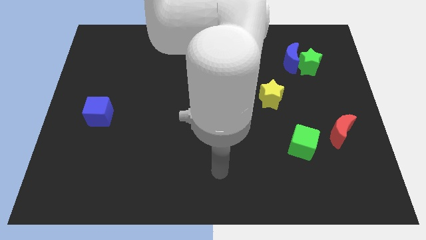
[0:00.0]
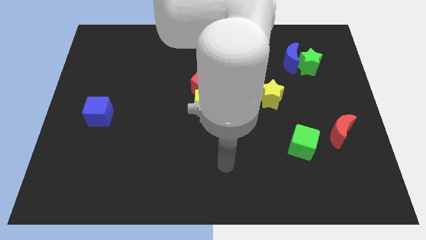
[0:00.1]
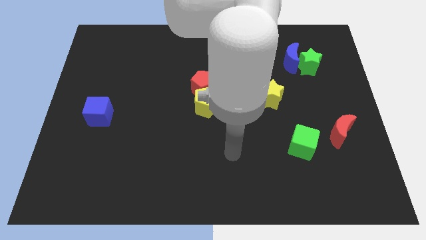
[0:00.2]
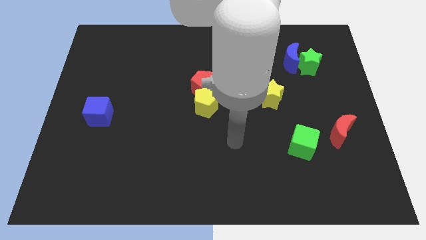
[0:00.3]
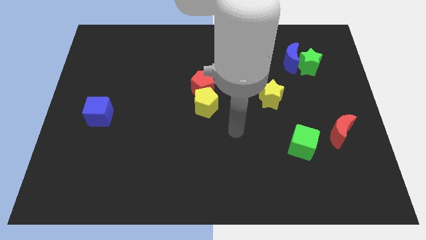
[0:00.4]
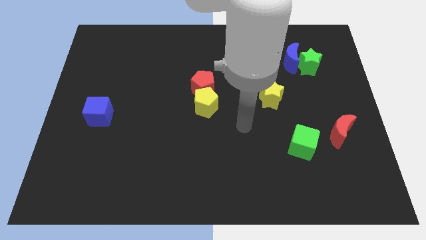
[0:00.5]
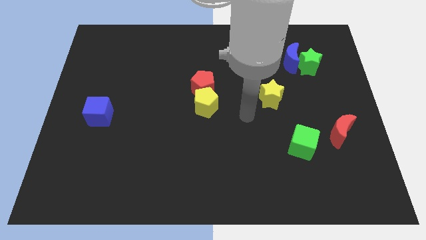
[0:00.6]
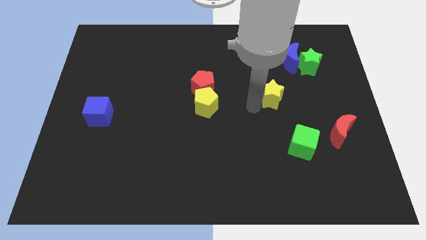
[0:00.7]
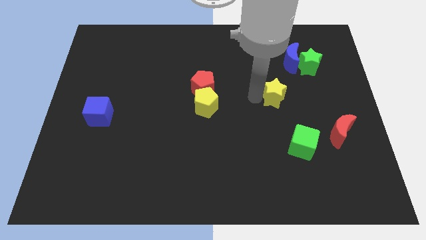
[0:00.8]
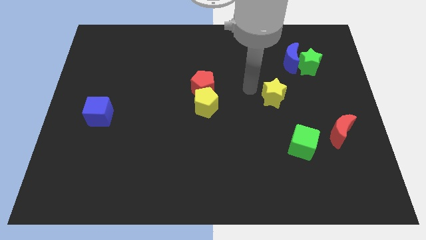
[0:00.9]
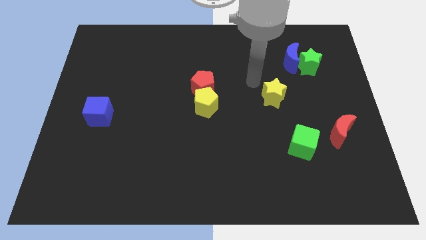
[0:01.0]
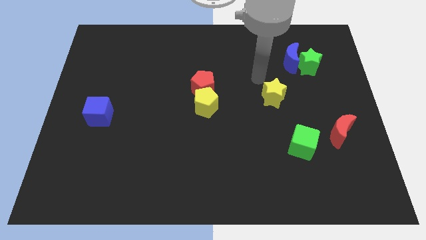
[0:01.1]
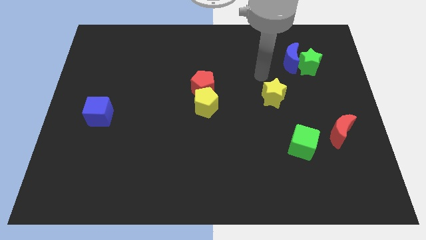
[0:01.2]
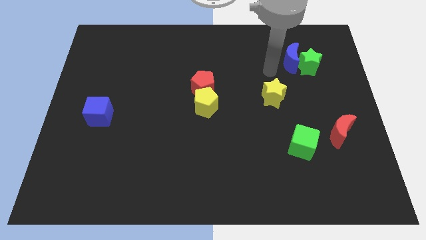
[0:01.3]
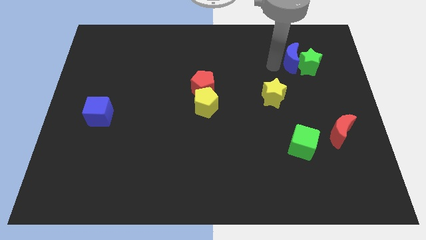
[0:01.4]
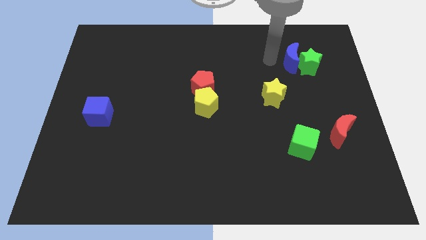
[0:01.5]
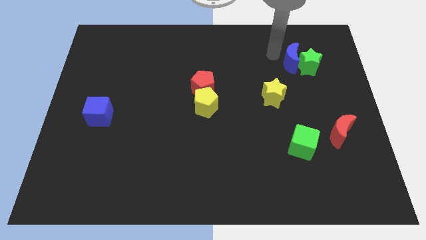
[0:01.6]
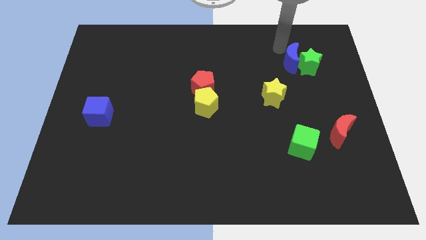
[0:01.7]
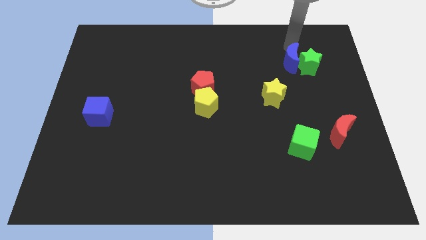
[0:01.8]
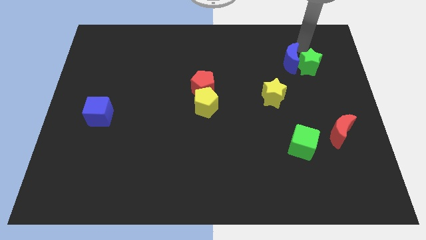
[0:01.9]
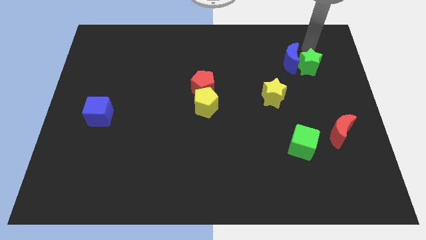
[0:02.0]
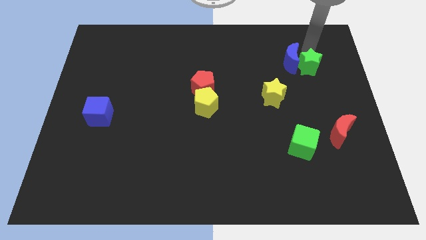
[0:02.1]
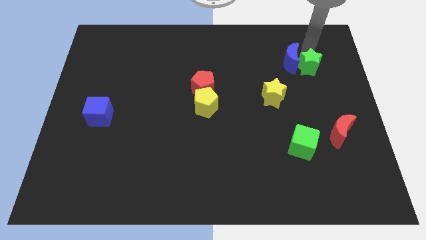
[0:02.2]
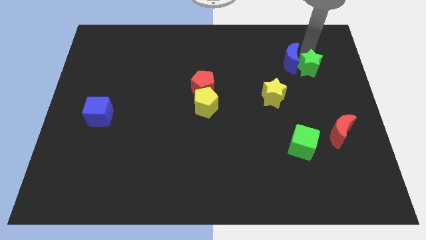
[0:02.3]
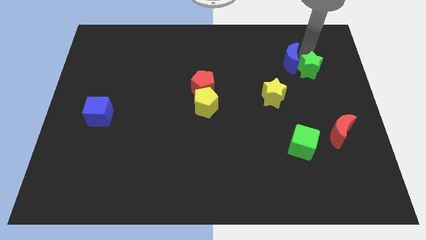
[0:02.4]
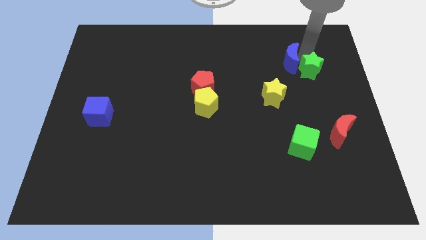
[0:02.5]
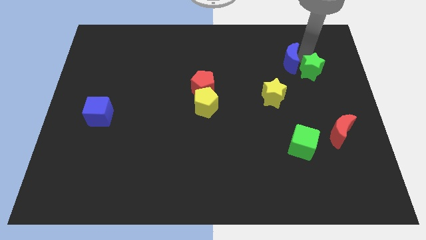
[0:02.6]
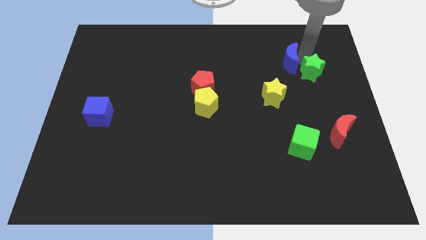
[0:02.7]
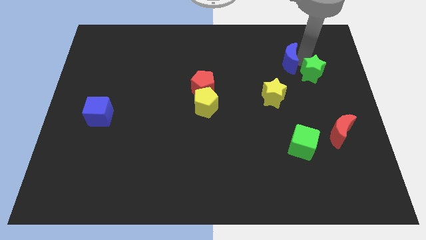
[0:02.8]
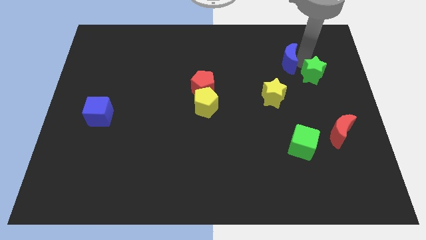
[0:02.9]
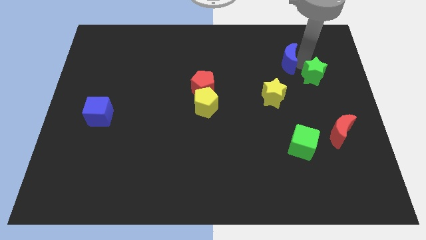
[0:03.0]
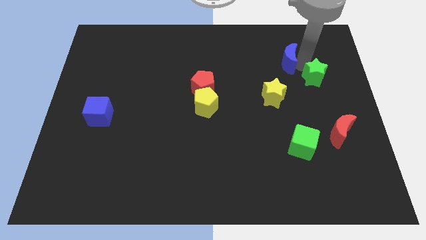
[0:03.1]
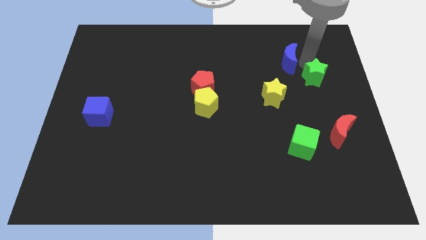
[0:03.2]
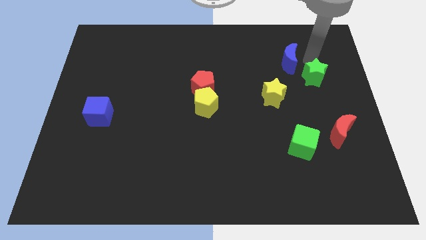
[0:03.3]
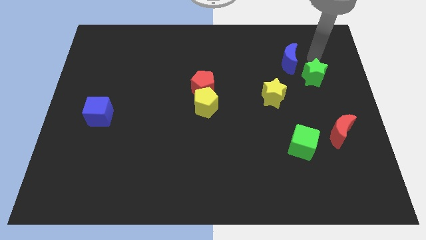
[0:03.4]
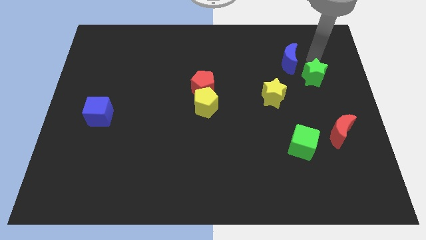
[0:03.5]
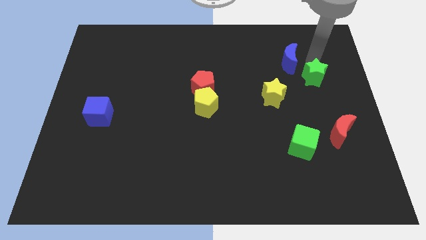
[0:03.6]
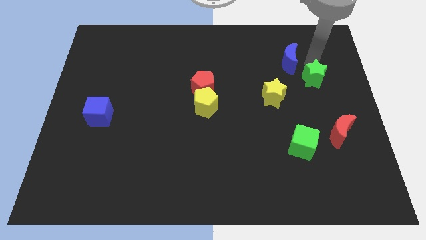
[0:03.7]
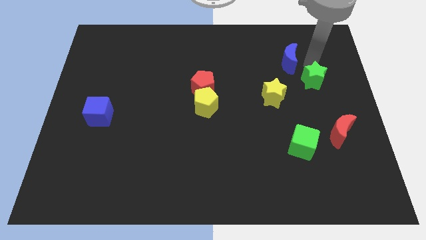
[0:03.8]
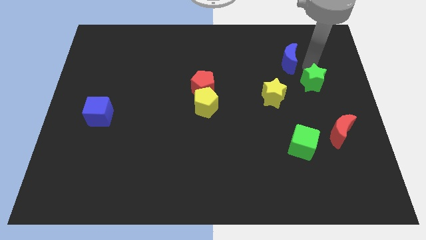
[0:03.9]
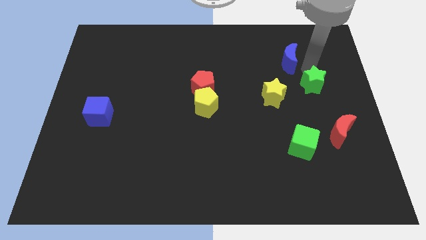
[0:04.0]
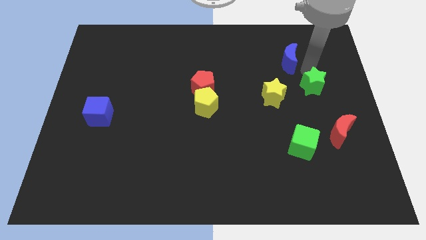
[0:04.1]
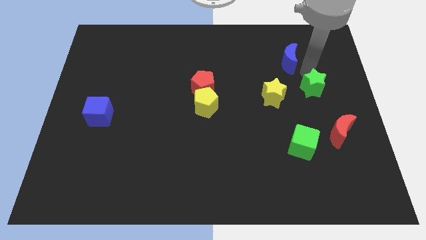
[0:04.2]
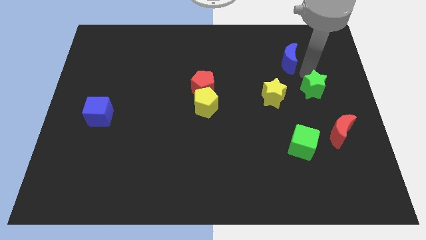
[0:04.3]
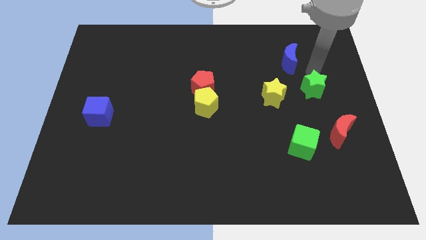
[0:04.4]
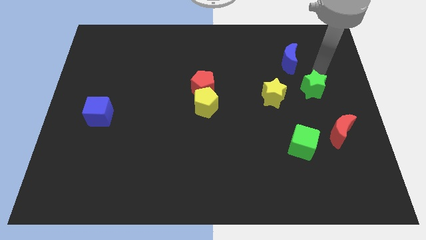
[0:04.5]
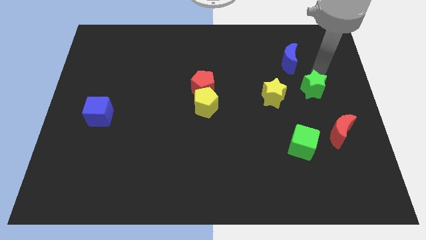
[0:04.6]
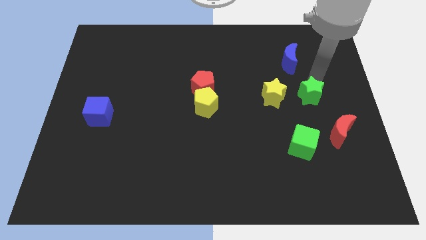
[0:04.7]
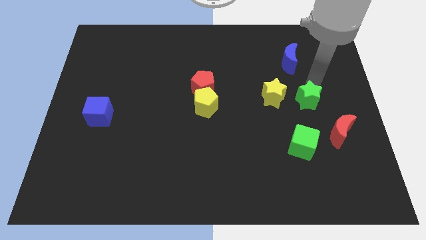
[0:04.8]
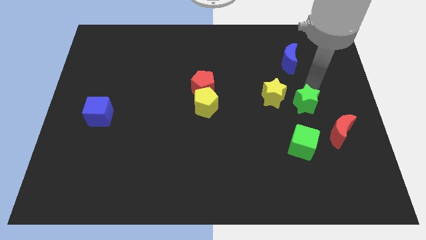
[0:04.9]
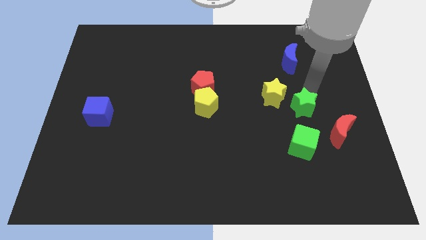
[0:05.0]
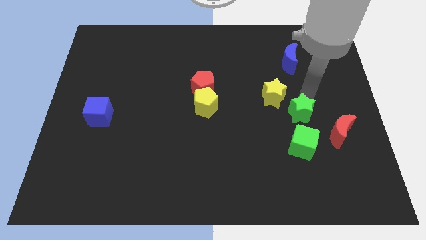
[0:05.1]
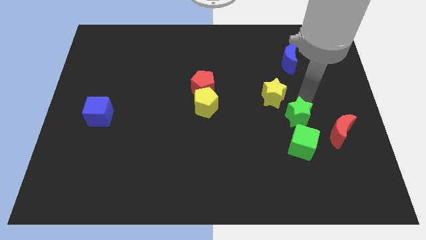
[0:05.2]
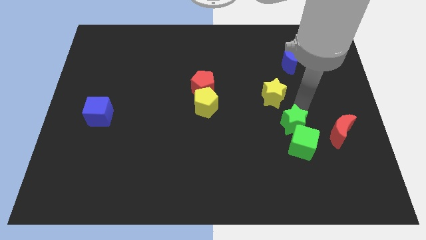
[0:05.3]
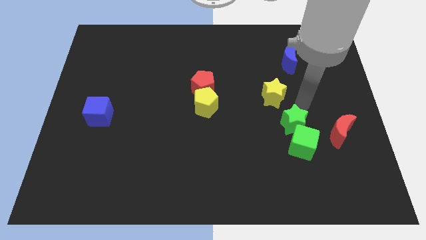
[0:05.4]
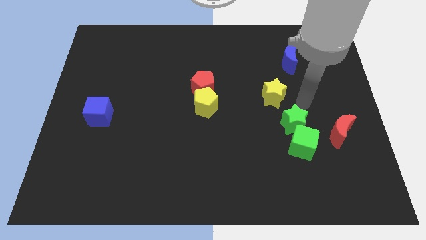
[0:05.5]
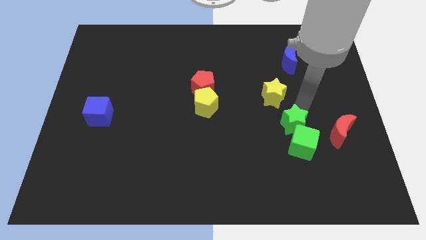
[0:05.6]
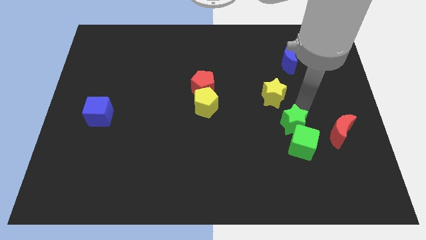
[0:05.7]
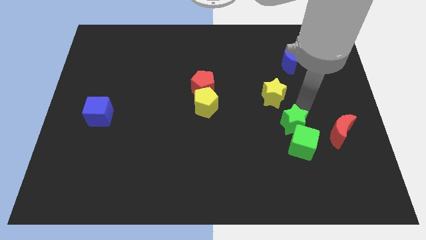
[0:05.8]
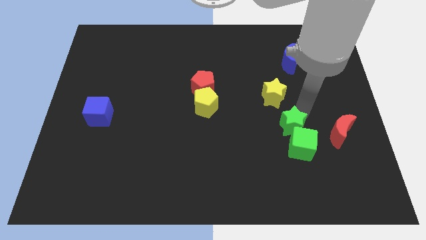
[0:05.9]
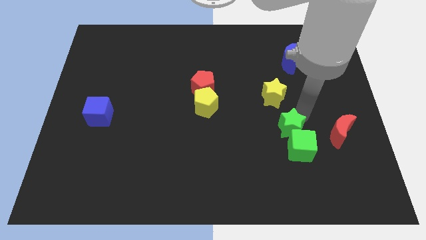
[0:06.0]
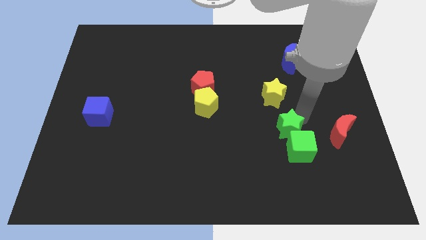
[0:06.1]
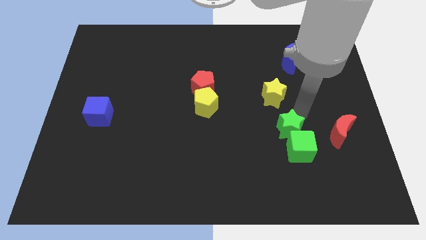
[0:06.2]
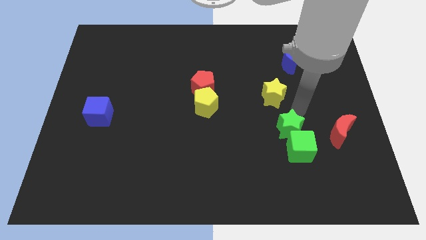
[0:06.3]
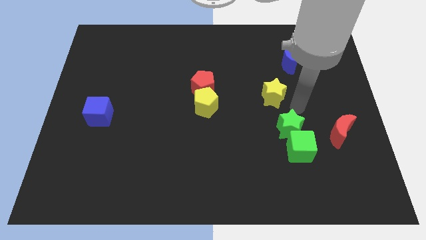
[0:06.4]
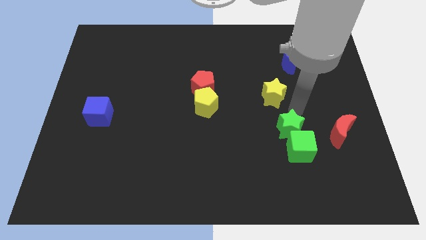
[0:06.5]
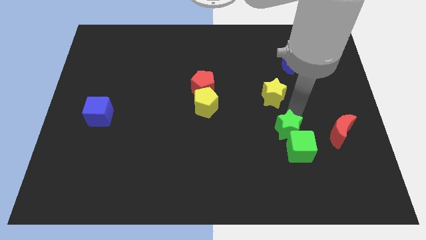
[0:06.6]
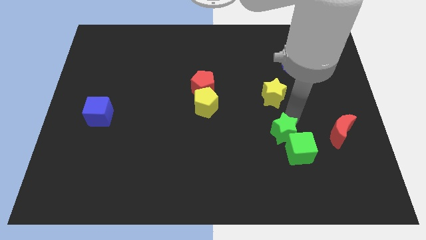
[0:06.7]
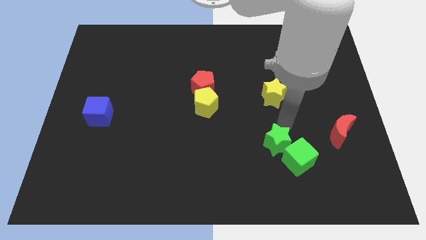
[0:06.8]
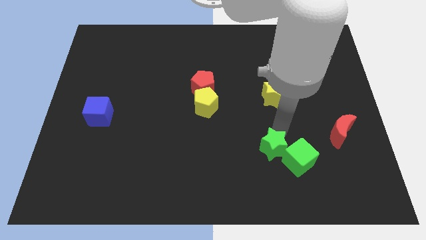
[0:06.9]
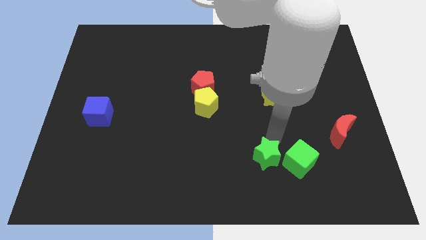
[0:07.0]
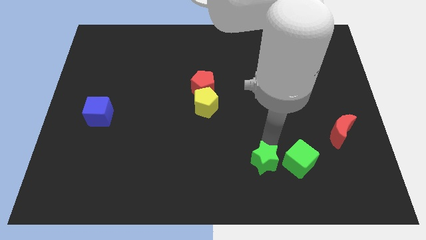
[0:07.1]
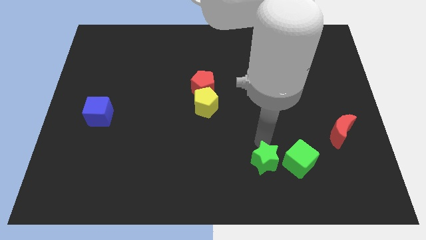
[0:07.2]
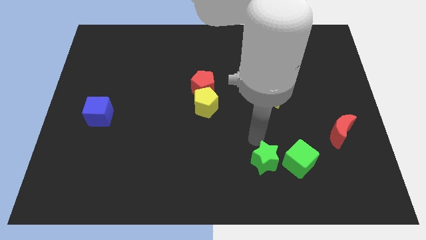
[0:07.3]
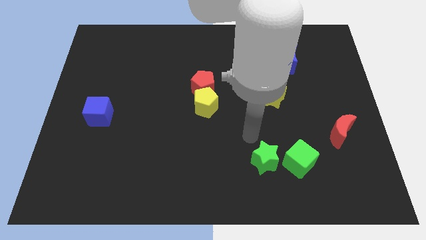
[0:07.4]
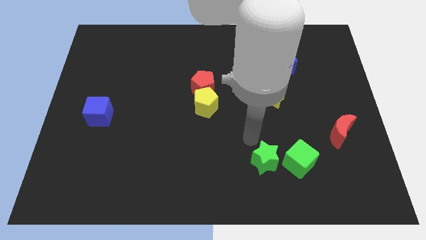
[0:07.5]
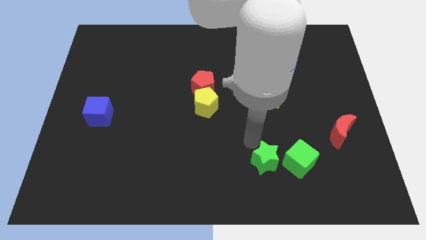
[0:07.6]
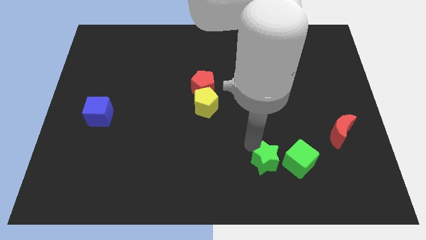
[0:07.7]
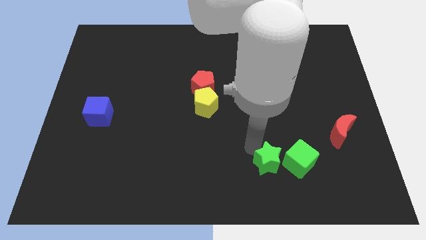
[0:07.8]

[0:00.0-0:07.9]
put the green star diagonally down and to the left of the green cube
